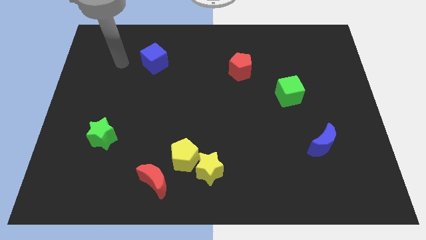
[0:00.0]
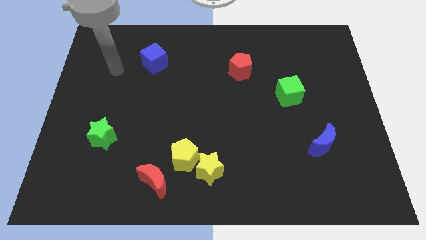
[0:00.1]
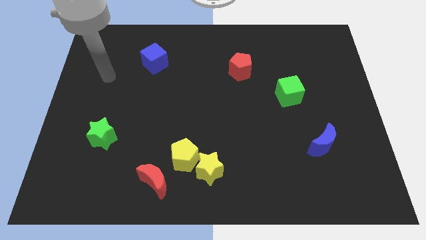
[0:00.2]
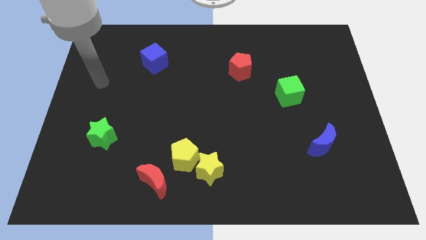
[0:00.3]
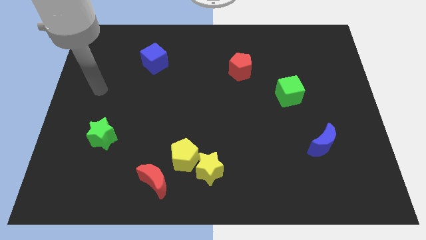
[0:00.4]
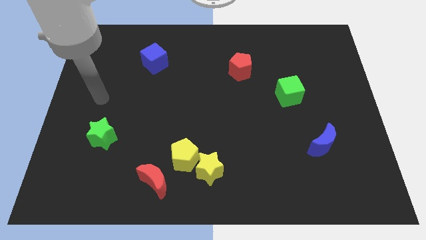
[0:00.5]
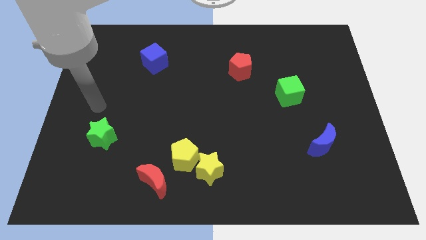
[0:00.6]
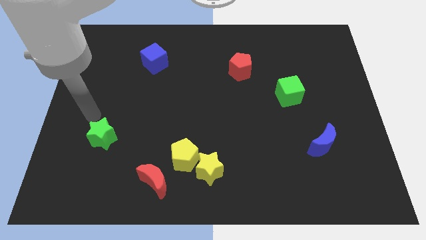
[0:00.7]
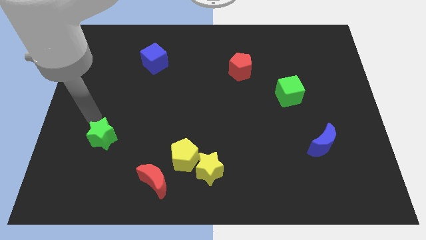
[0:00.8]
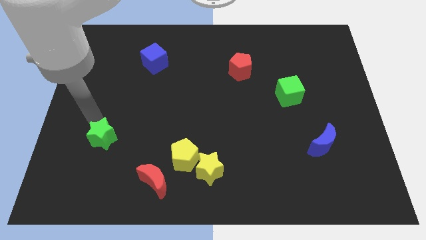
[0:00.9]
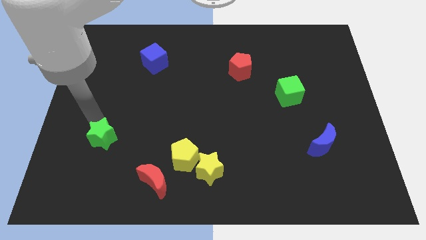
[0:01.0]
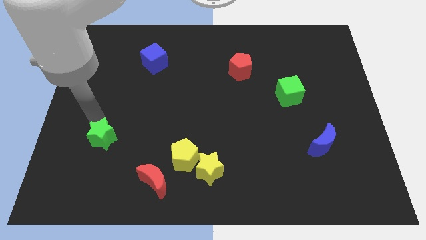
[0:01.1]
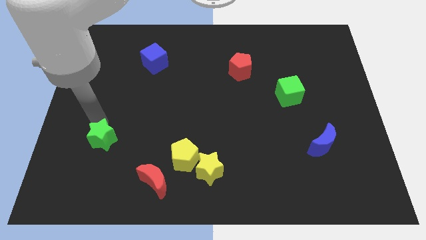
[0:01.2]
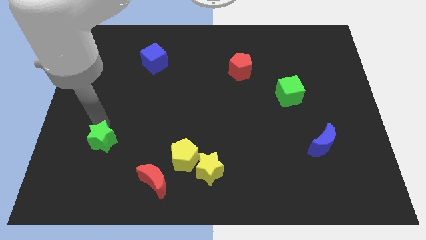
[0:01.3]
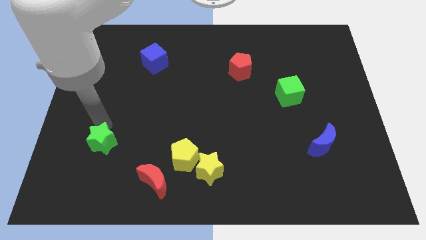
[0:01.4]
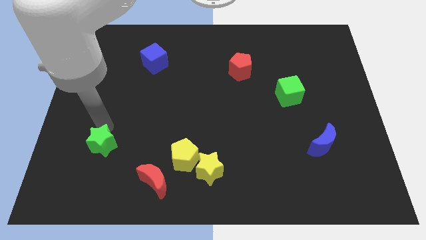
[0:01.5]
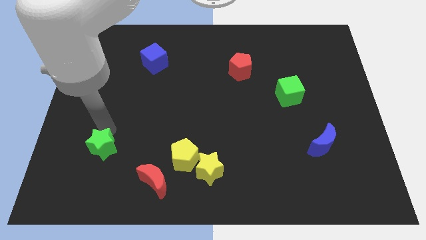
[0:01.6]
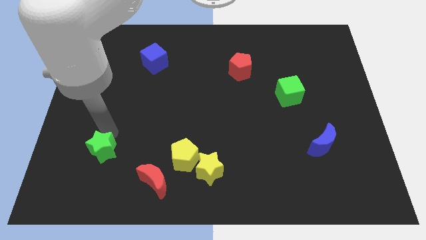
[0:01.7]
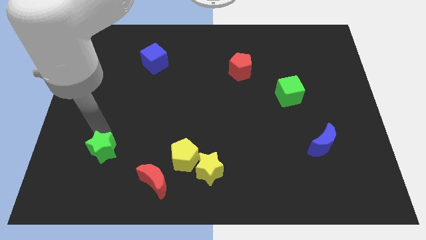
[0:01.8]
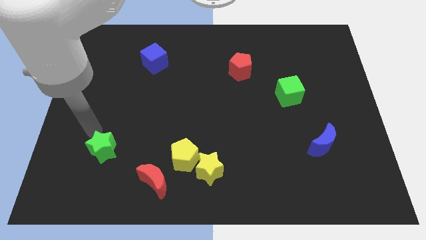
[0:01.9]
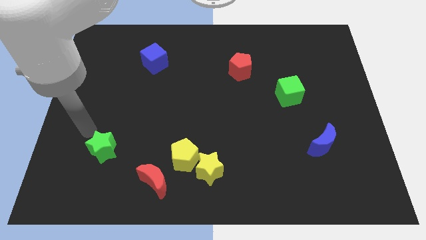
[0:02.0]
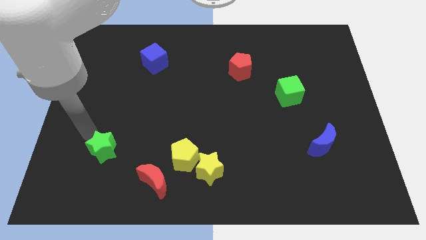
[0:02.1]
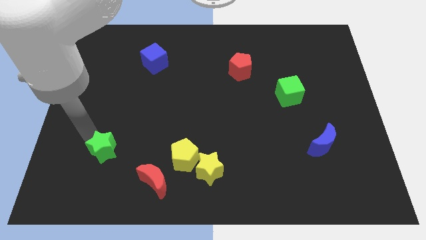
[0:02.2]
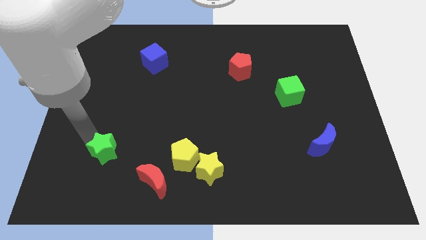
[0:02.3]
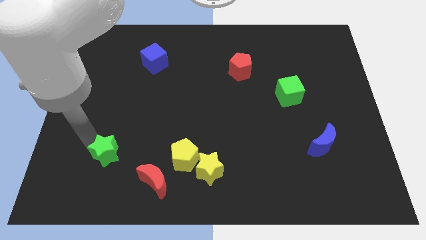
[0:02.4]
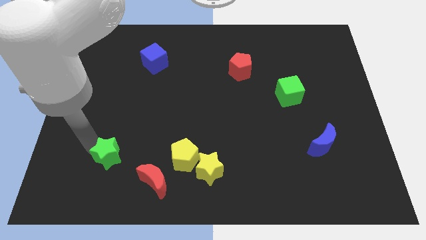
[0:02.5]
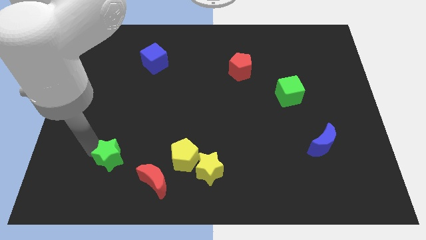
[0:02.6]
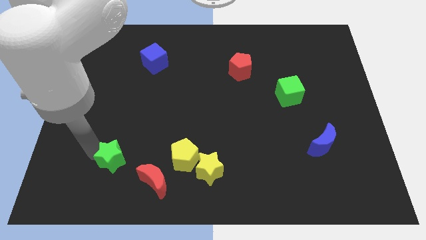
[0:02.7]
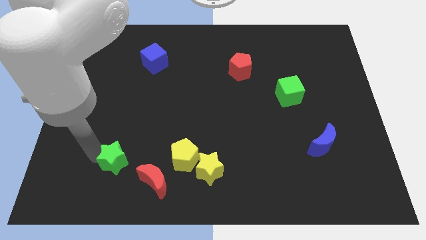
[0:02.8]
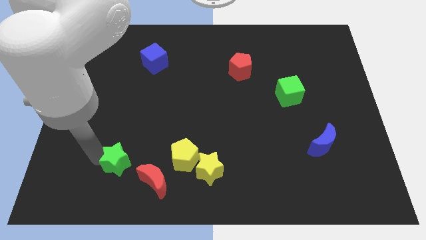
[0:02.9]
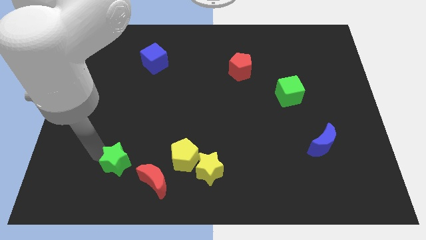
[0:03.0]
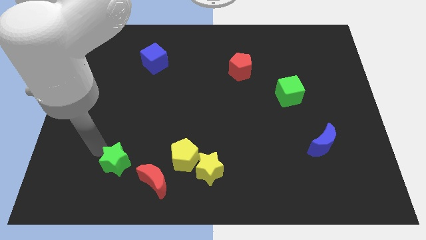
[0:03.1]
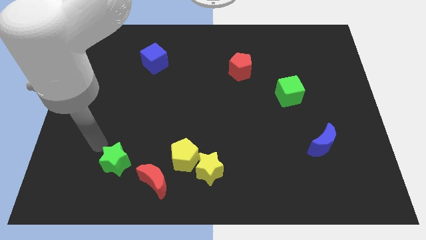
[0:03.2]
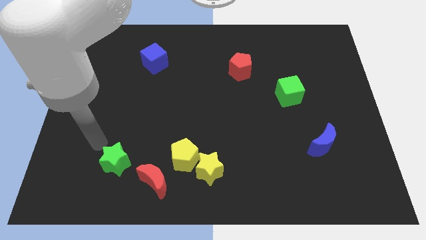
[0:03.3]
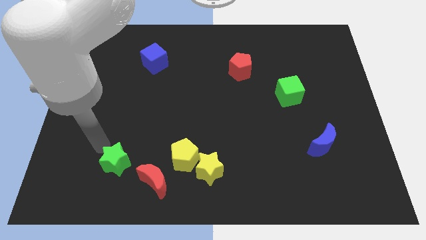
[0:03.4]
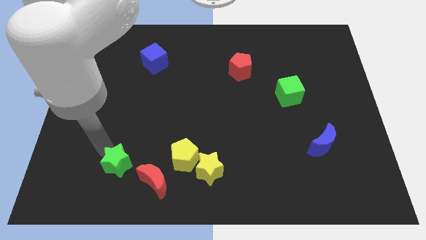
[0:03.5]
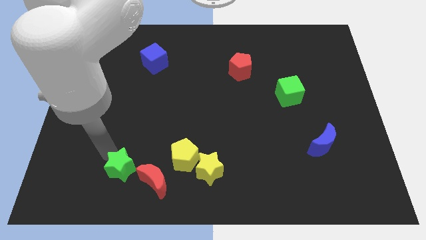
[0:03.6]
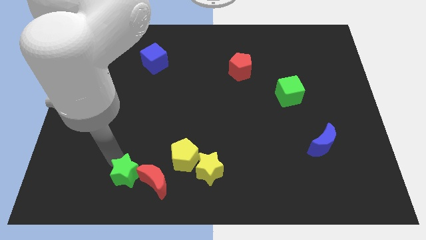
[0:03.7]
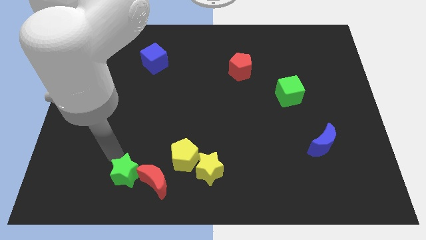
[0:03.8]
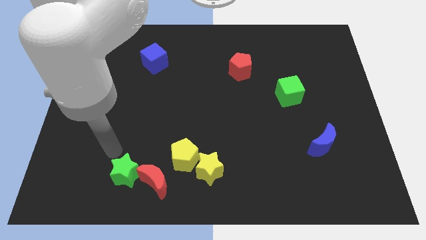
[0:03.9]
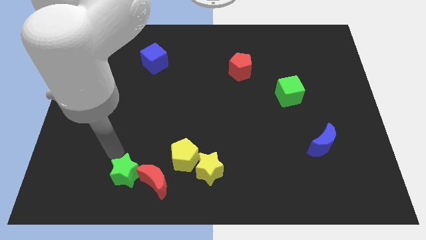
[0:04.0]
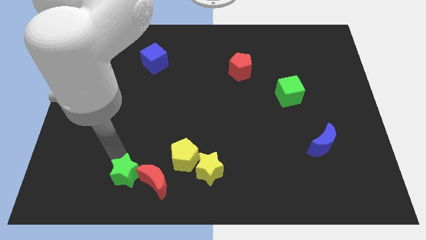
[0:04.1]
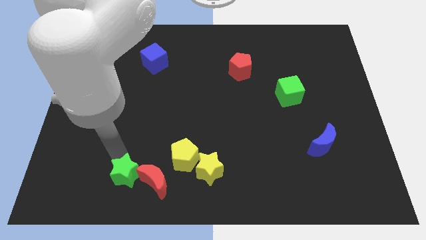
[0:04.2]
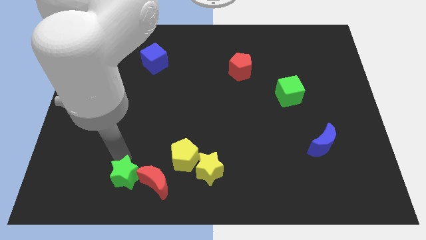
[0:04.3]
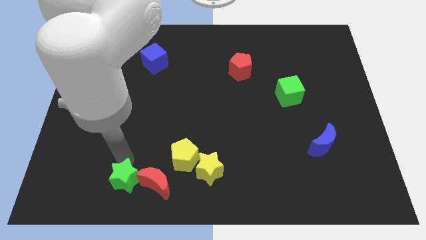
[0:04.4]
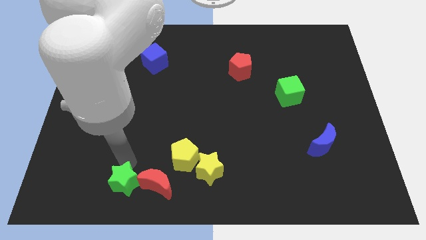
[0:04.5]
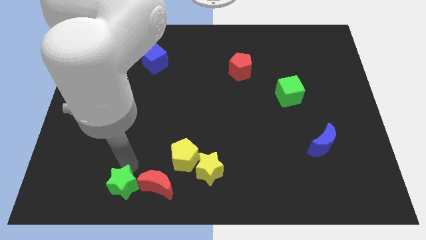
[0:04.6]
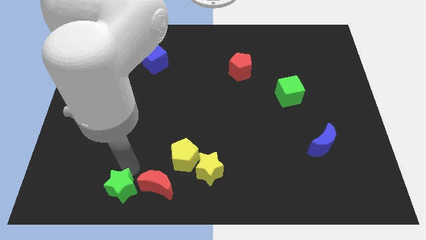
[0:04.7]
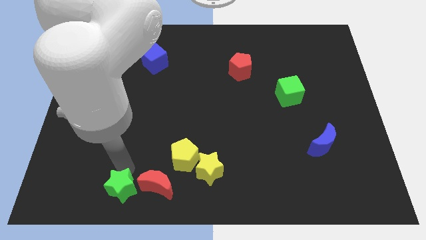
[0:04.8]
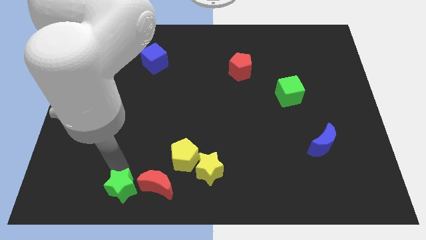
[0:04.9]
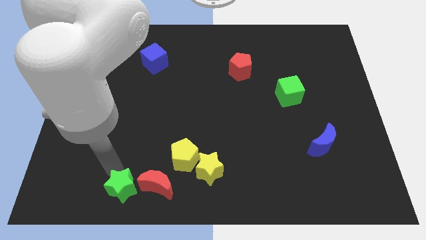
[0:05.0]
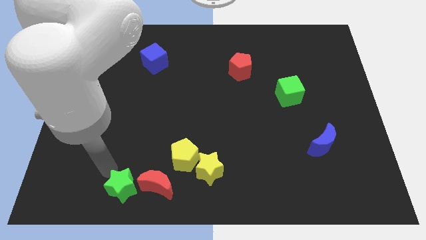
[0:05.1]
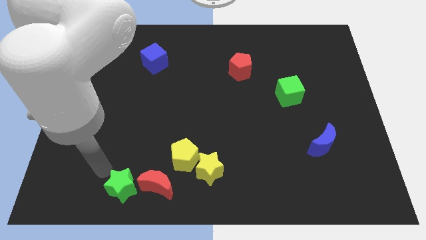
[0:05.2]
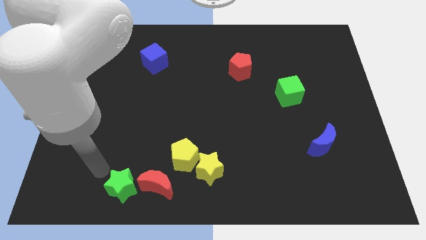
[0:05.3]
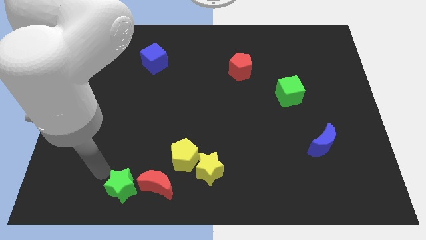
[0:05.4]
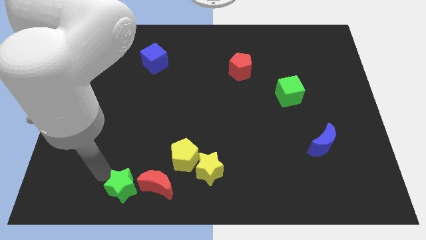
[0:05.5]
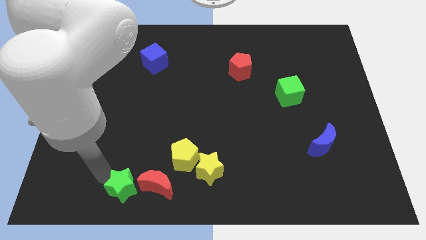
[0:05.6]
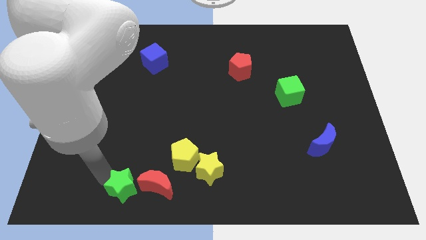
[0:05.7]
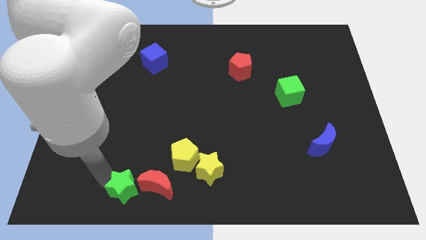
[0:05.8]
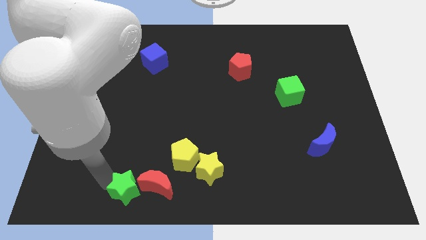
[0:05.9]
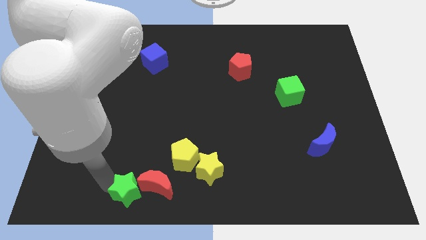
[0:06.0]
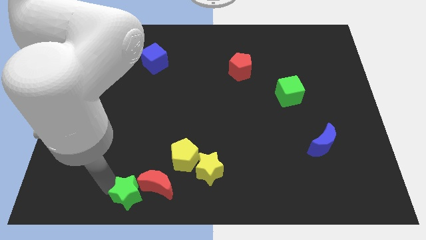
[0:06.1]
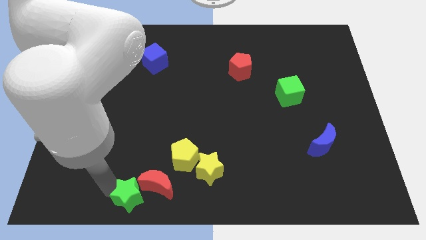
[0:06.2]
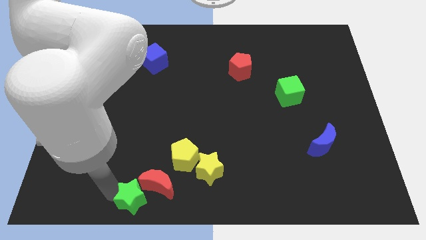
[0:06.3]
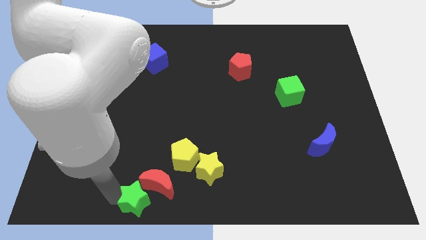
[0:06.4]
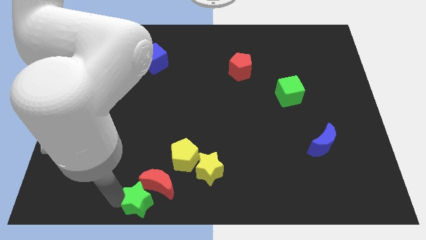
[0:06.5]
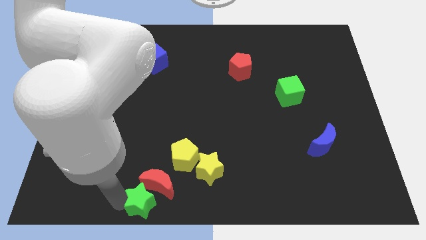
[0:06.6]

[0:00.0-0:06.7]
slide the green star to the bottom side
